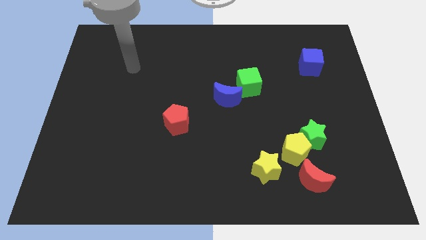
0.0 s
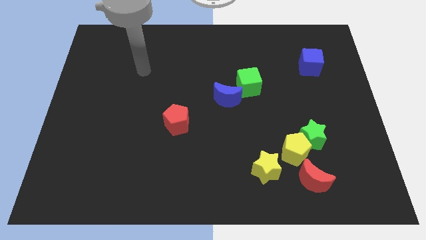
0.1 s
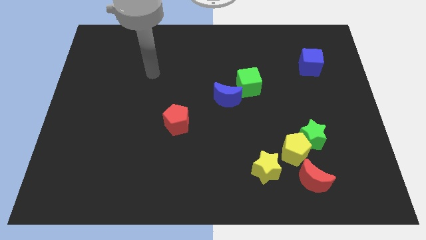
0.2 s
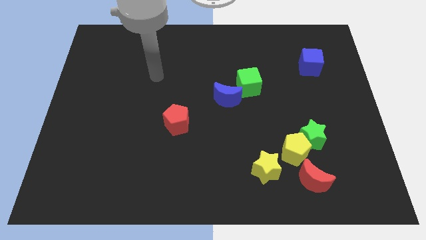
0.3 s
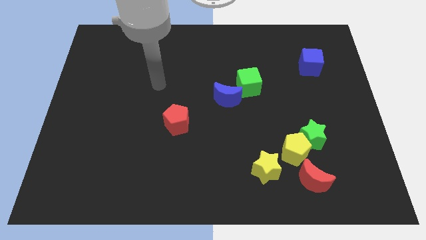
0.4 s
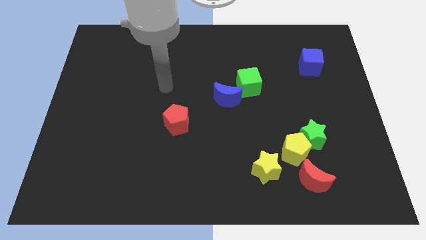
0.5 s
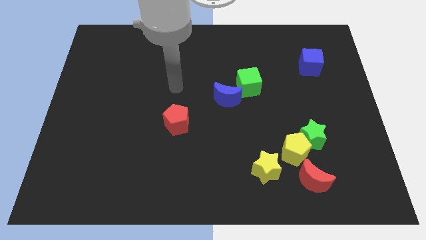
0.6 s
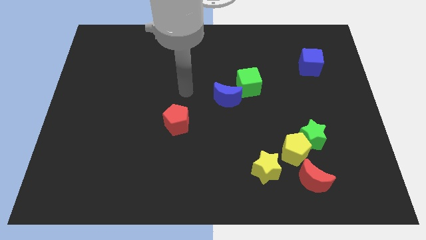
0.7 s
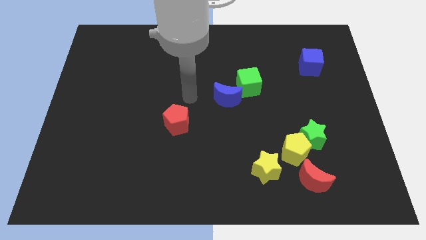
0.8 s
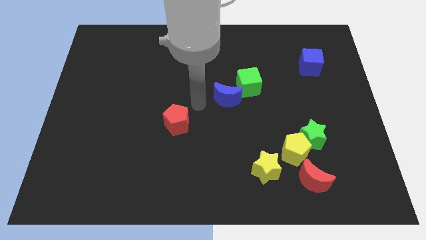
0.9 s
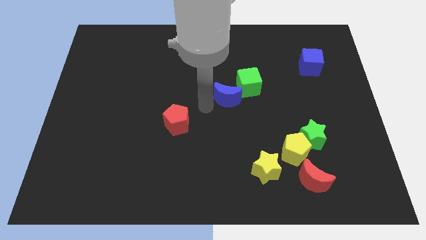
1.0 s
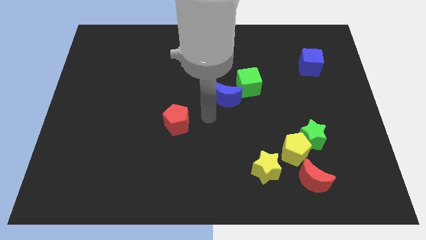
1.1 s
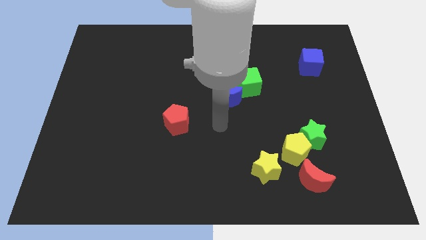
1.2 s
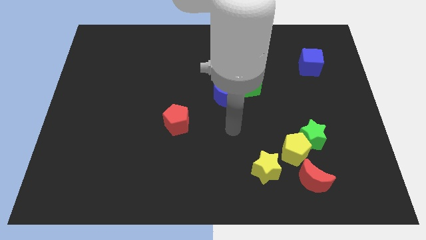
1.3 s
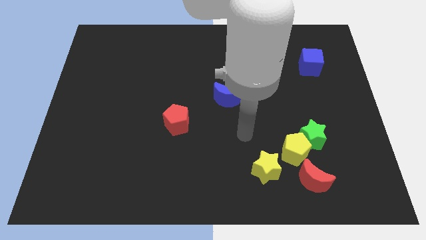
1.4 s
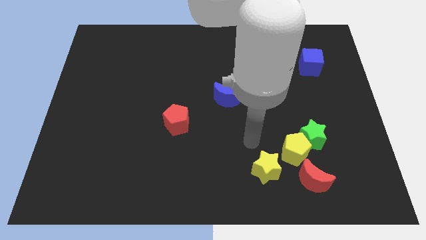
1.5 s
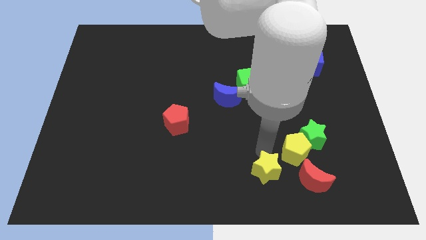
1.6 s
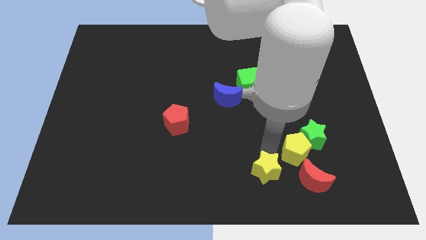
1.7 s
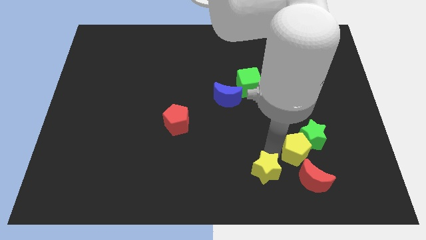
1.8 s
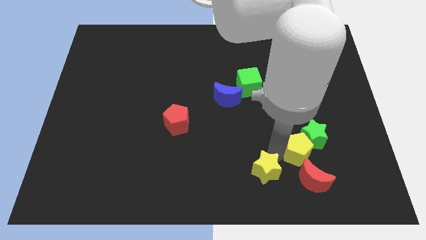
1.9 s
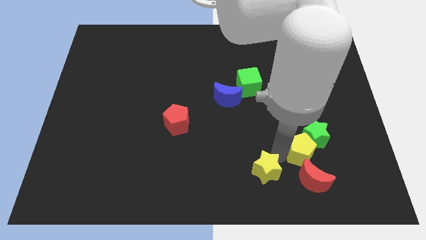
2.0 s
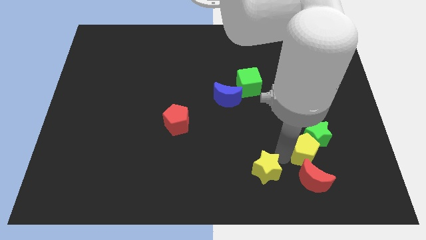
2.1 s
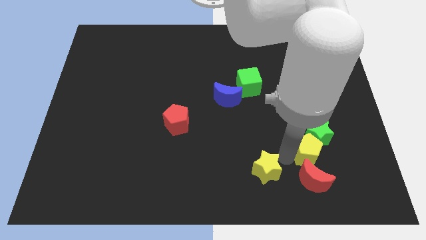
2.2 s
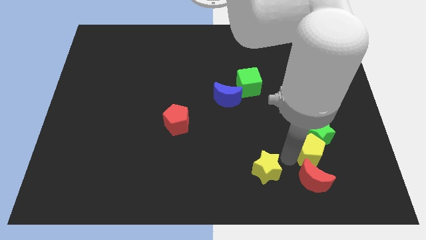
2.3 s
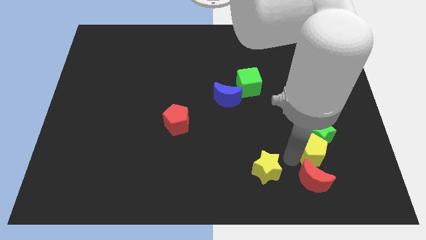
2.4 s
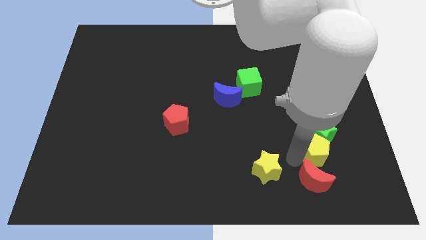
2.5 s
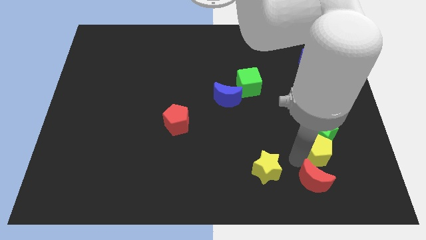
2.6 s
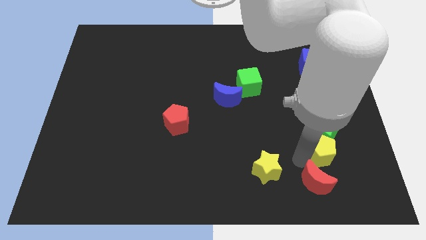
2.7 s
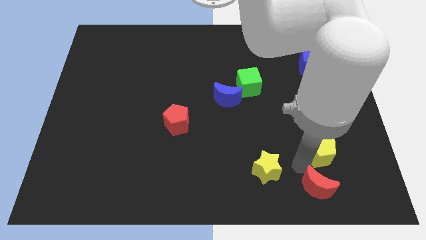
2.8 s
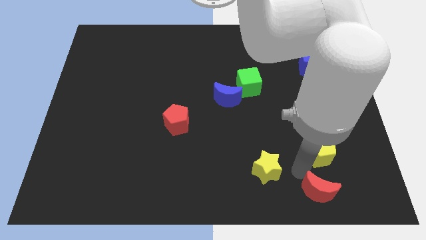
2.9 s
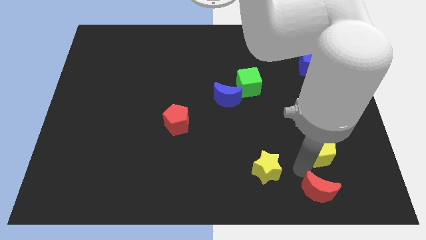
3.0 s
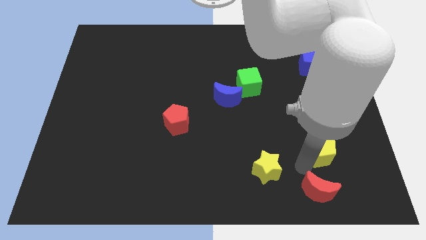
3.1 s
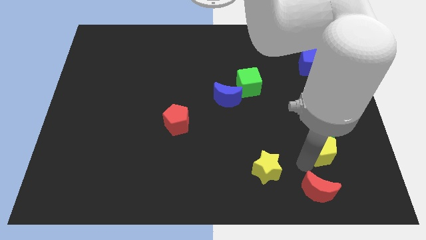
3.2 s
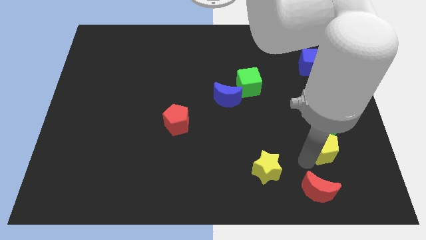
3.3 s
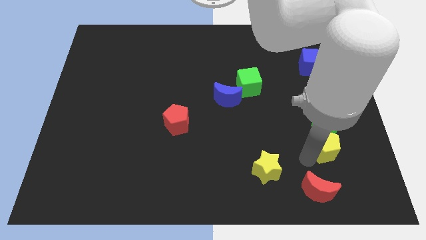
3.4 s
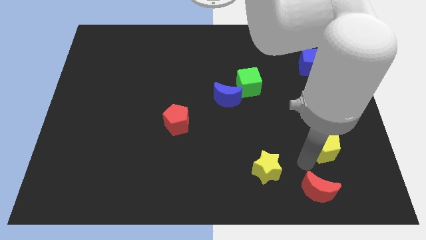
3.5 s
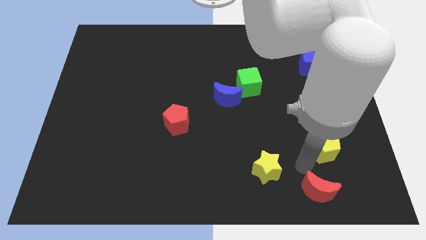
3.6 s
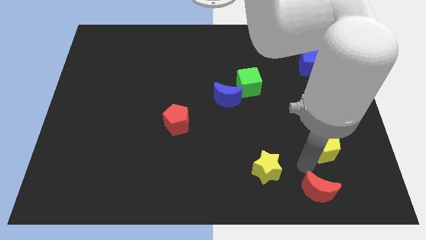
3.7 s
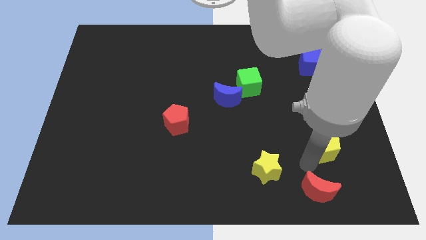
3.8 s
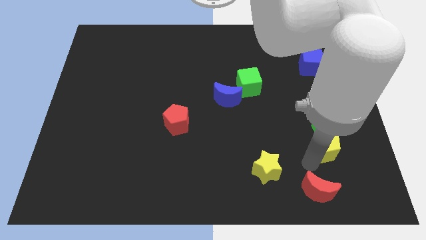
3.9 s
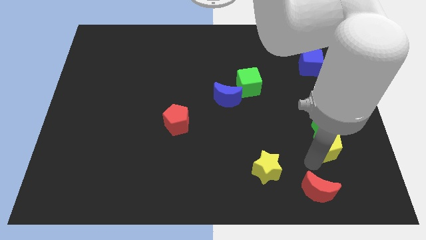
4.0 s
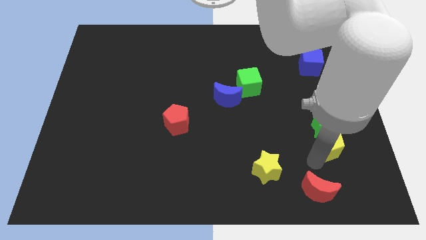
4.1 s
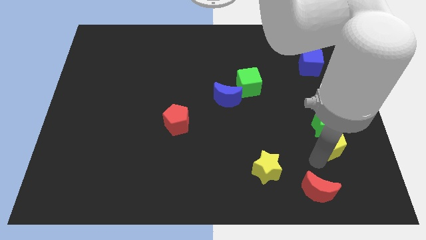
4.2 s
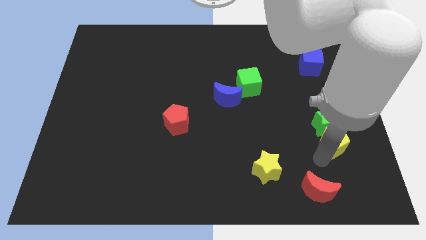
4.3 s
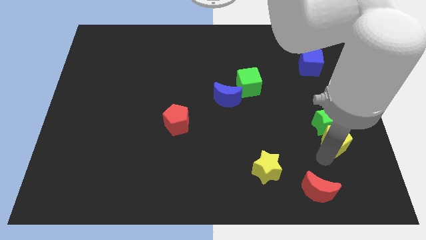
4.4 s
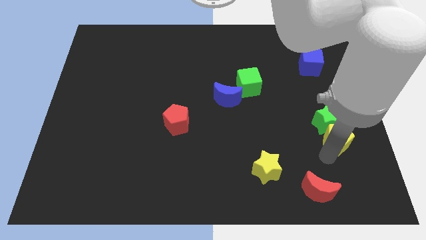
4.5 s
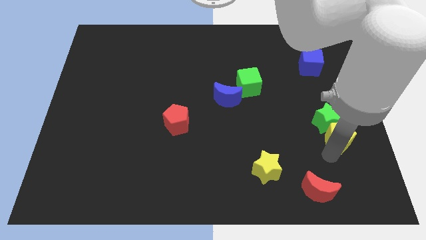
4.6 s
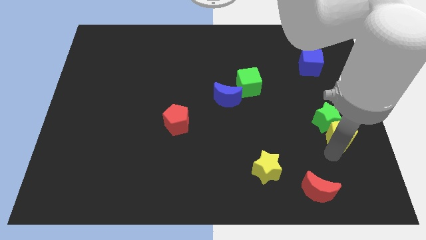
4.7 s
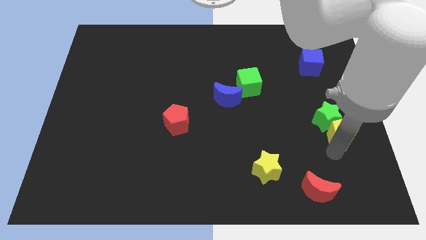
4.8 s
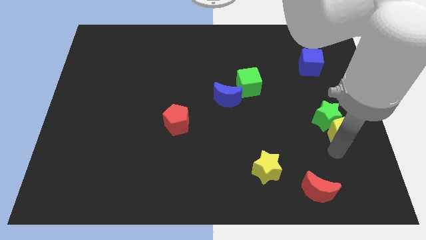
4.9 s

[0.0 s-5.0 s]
move the yellow pentagon to the right side

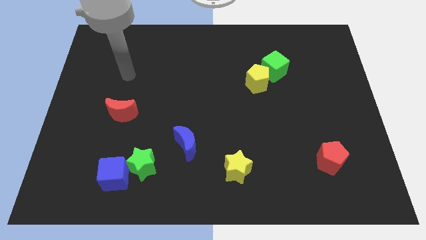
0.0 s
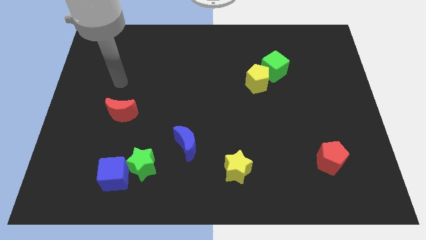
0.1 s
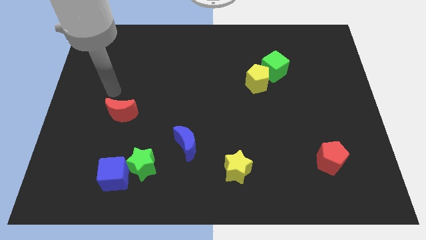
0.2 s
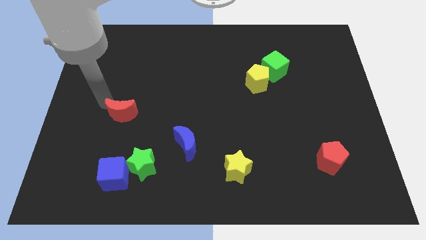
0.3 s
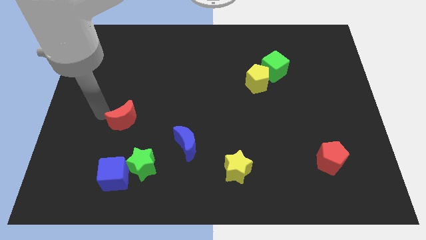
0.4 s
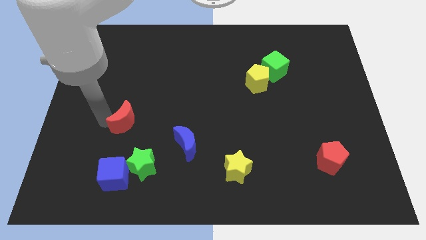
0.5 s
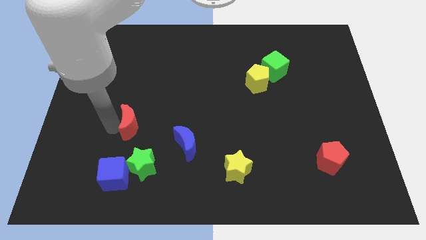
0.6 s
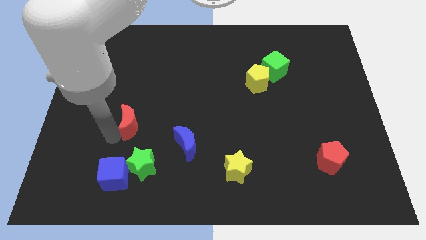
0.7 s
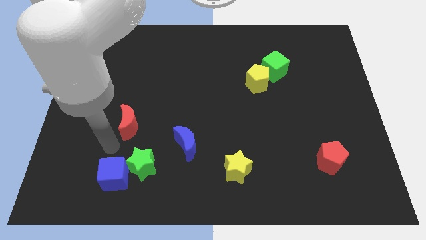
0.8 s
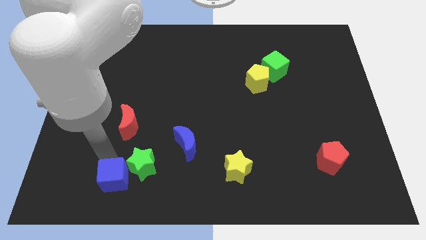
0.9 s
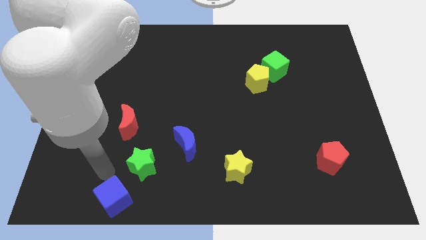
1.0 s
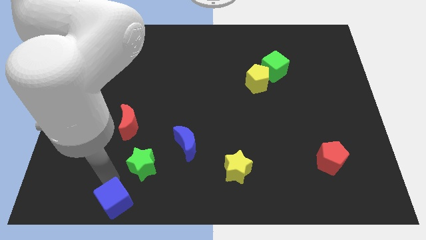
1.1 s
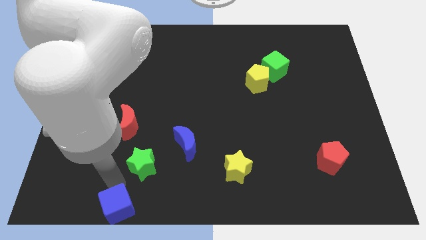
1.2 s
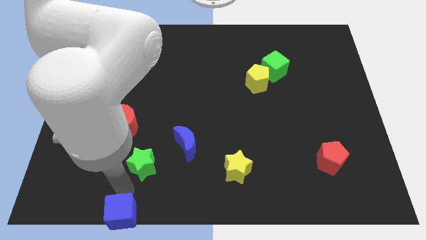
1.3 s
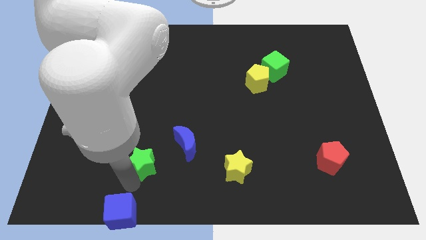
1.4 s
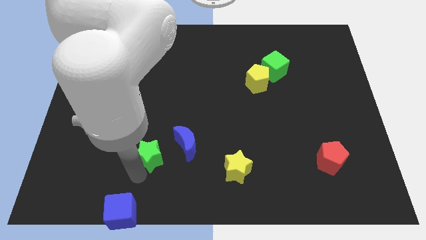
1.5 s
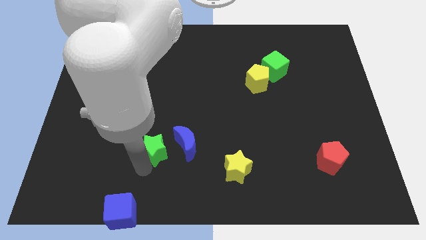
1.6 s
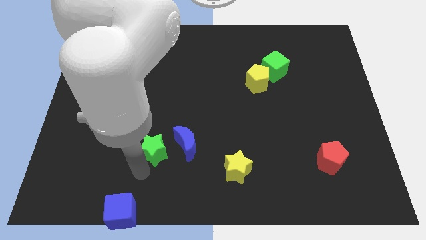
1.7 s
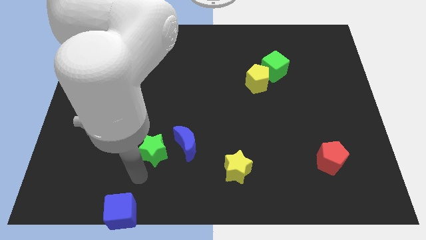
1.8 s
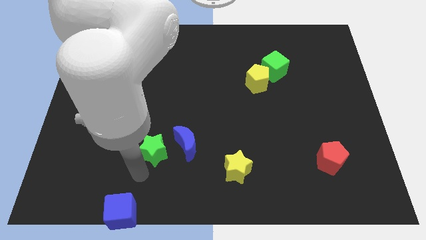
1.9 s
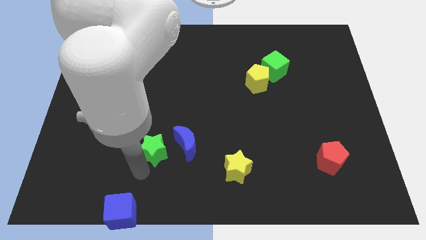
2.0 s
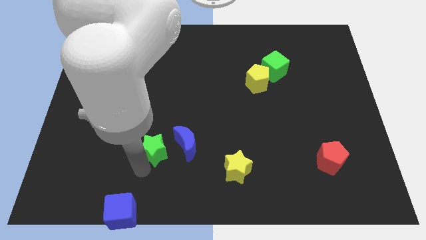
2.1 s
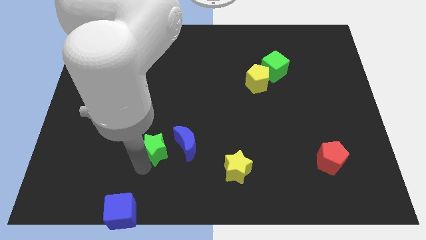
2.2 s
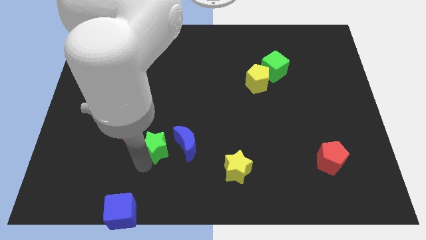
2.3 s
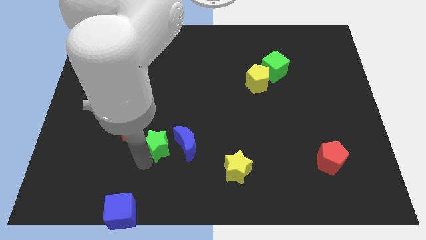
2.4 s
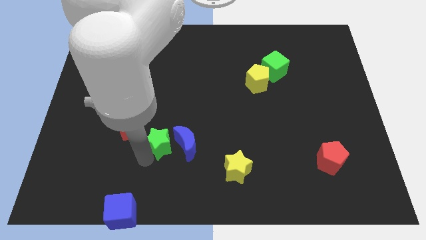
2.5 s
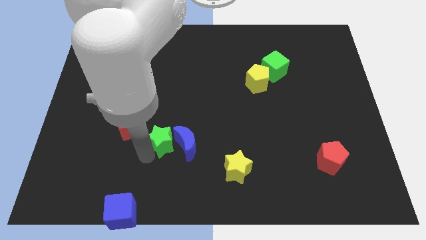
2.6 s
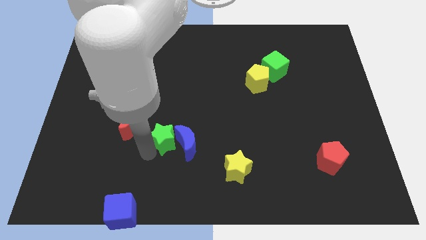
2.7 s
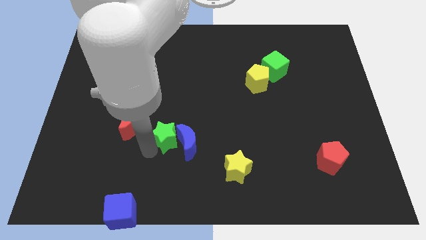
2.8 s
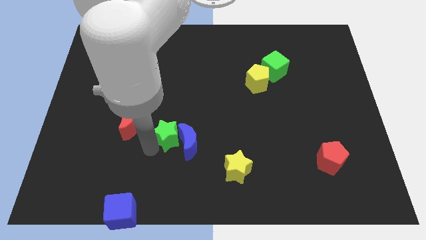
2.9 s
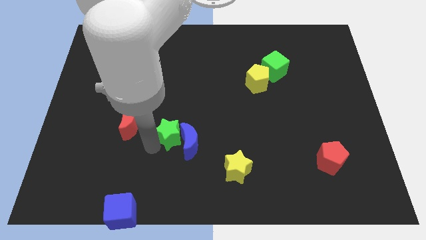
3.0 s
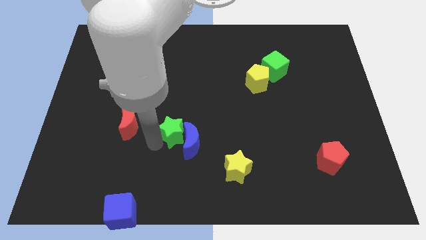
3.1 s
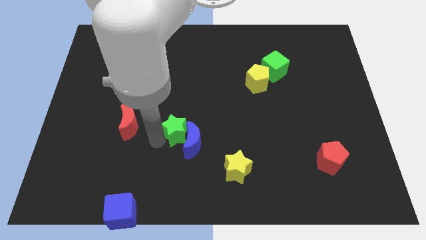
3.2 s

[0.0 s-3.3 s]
push the green star to the center
